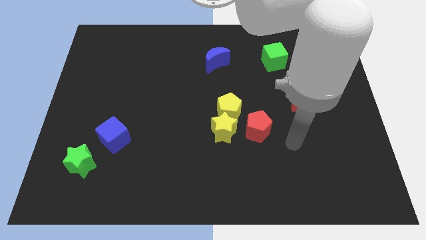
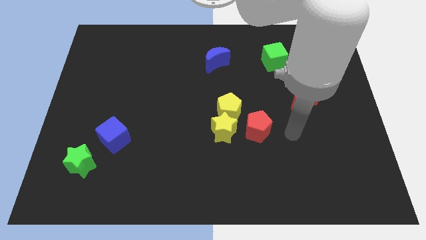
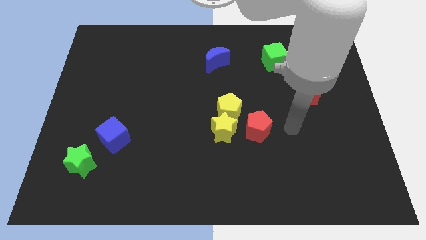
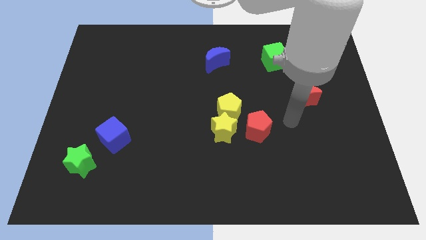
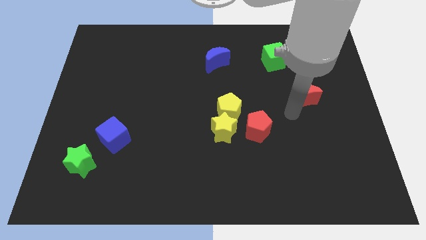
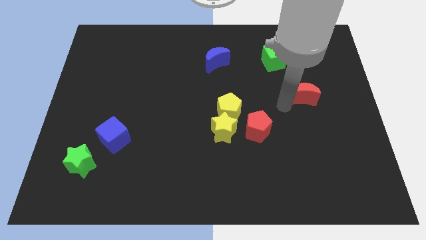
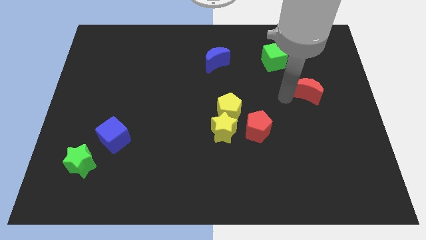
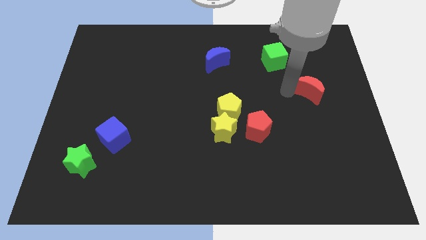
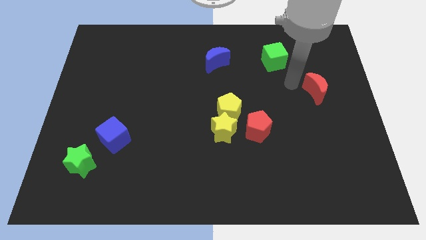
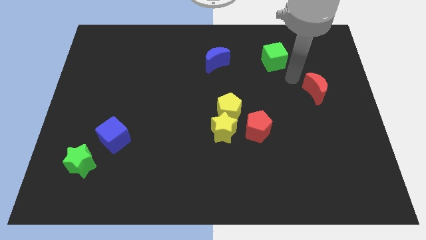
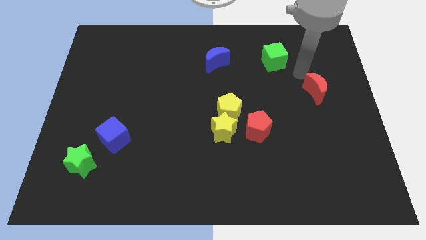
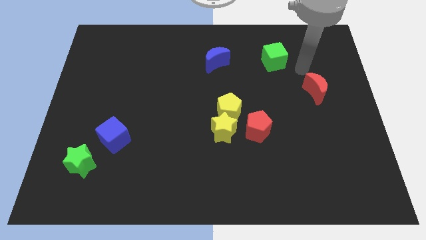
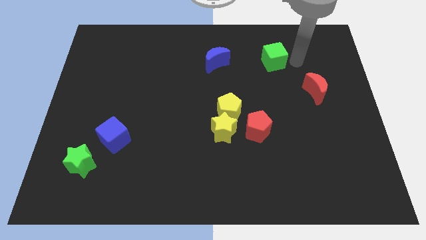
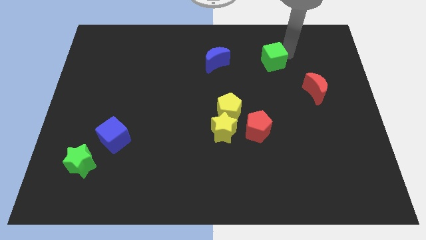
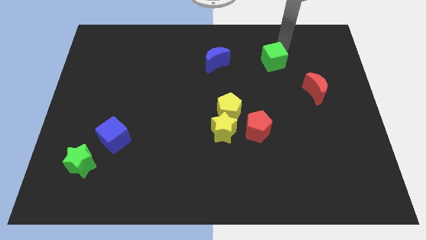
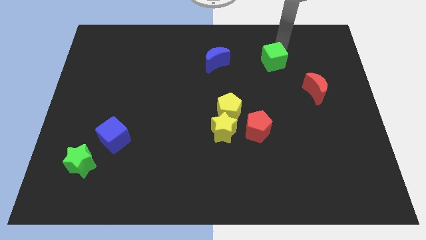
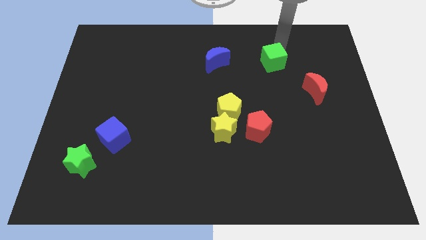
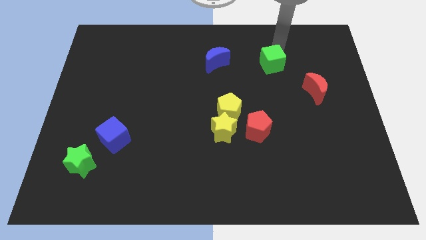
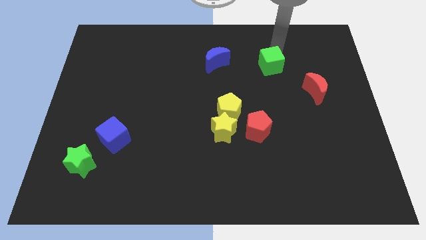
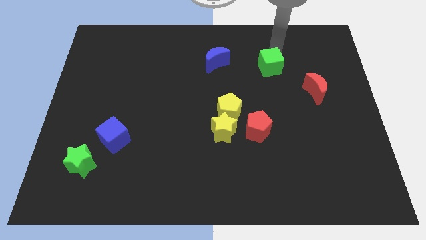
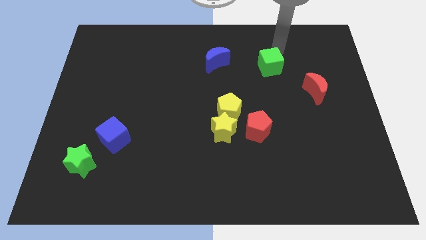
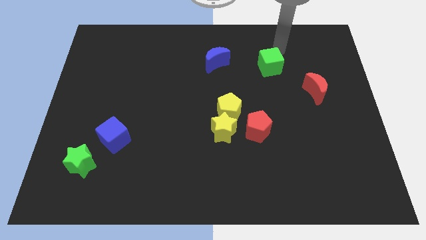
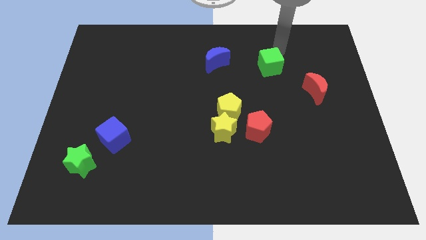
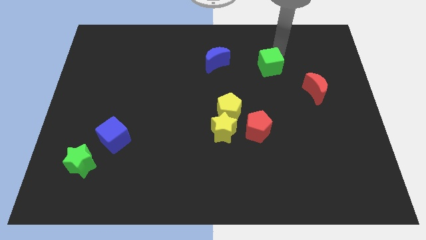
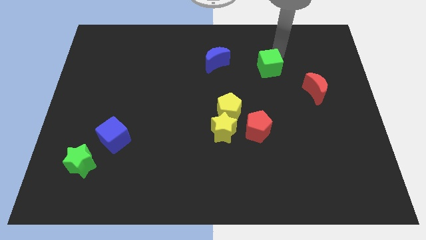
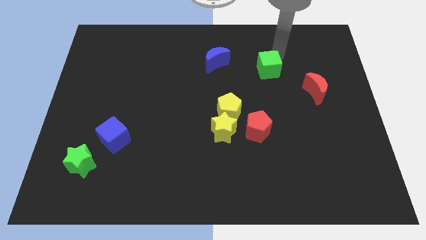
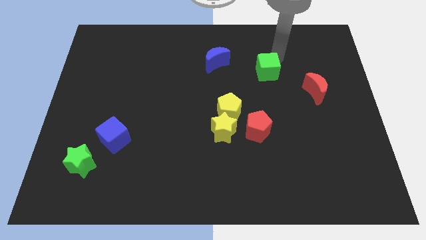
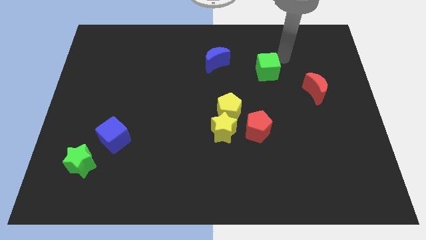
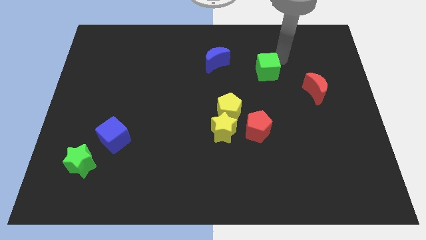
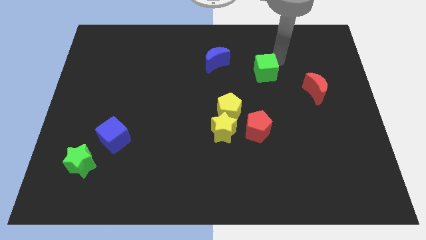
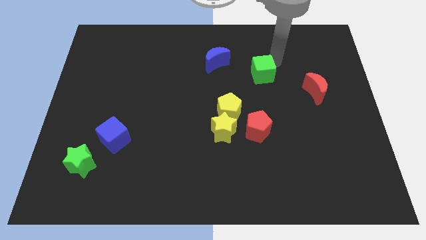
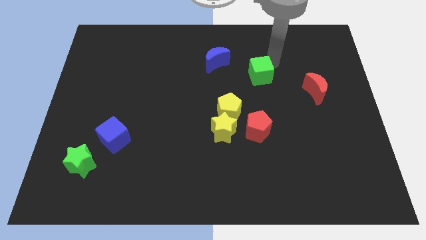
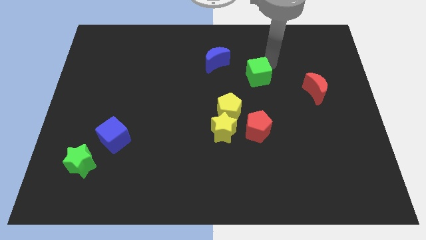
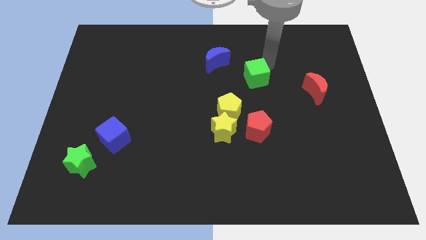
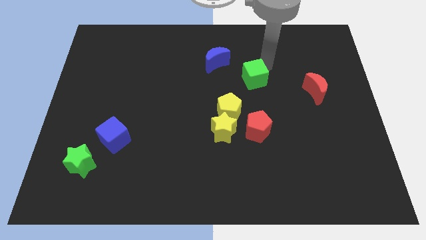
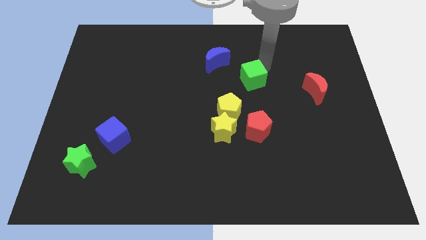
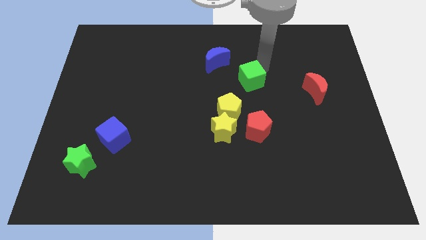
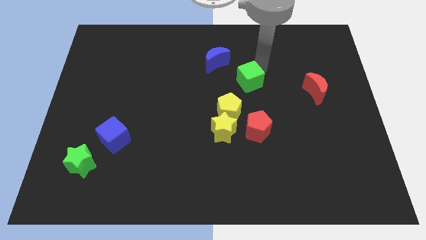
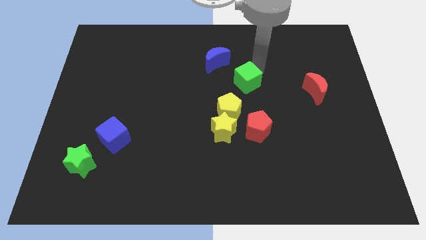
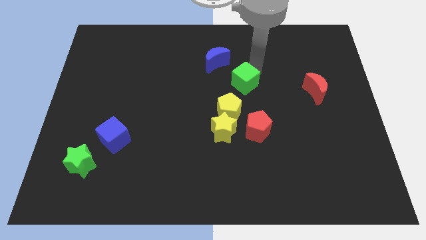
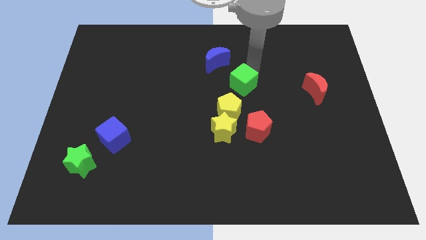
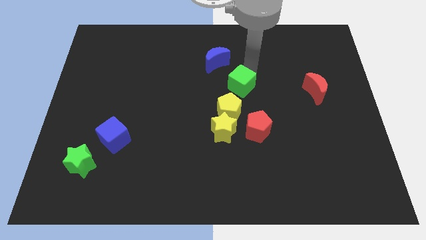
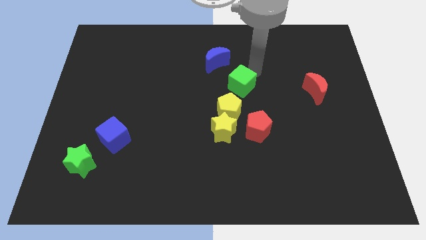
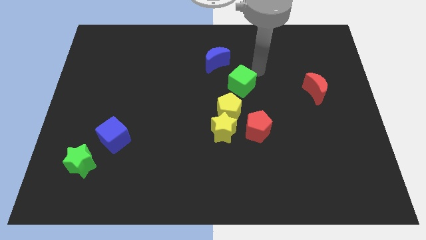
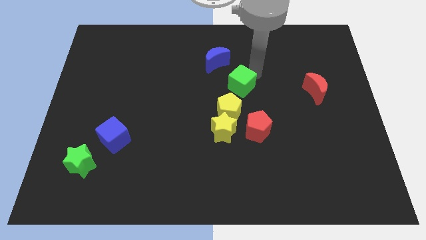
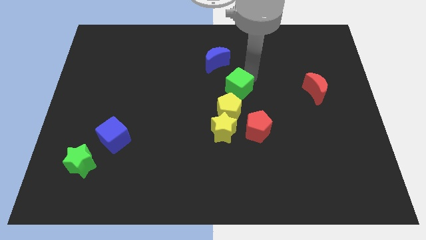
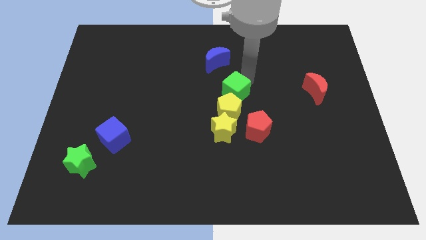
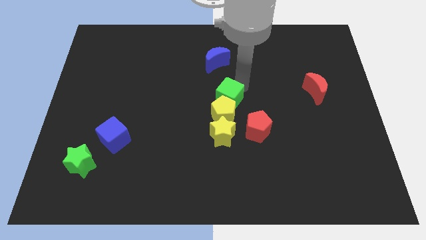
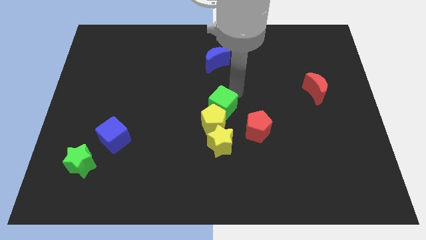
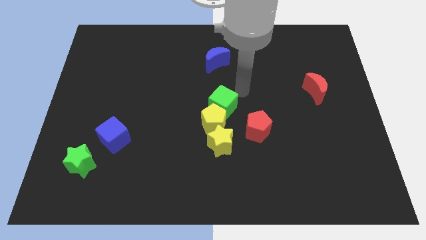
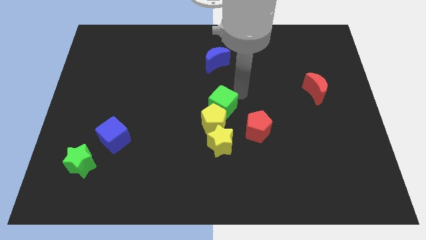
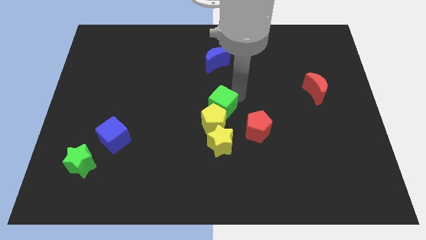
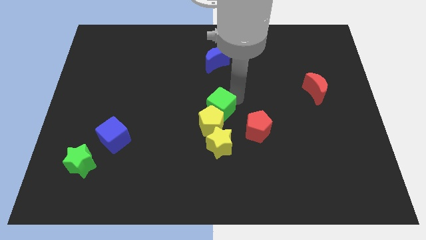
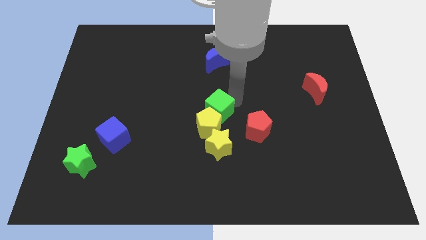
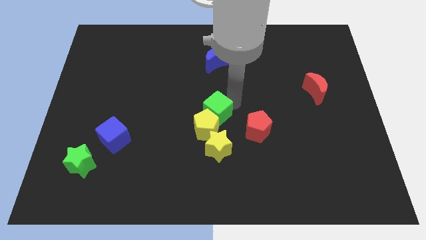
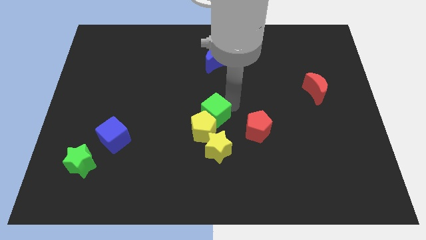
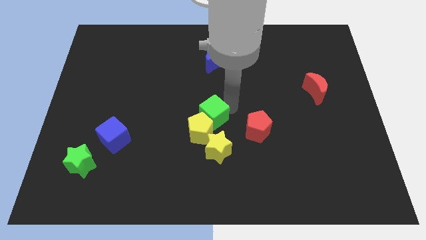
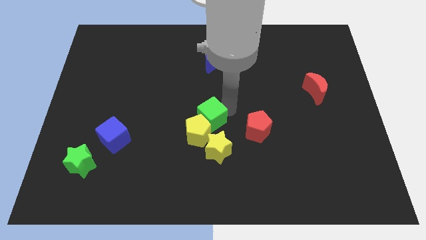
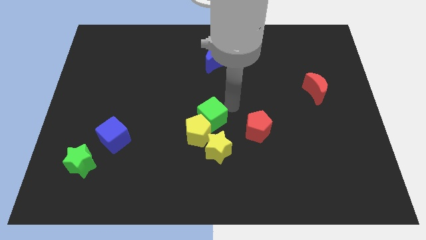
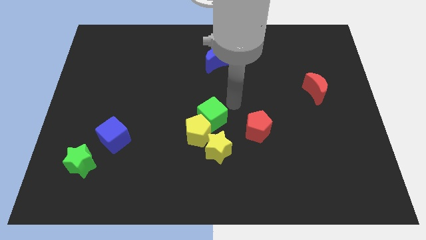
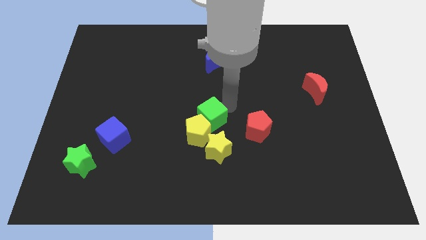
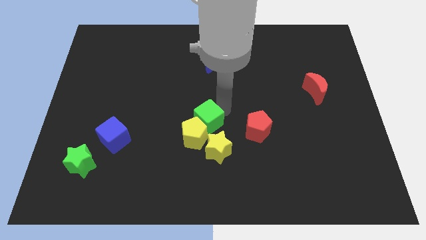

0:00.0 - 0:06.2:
put the green cube diagonally up and to the left of the yellow star

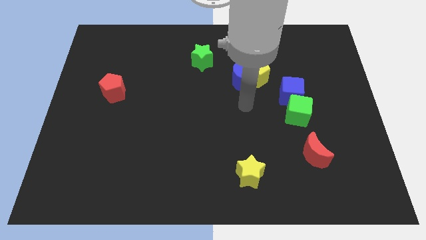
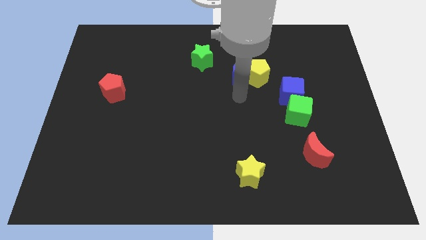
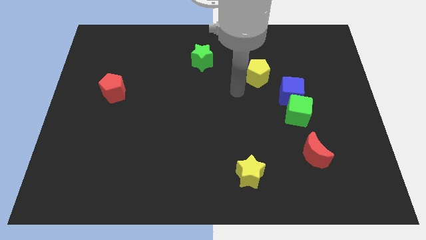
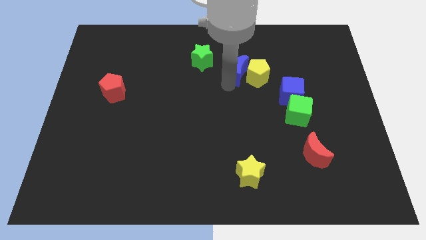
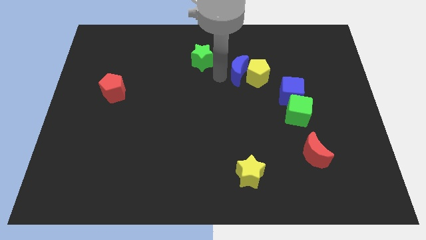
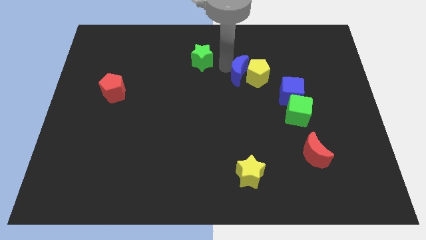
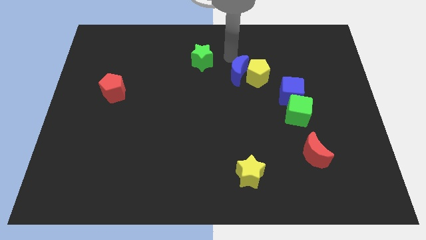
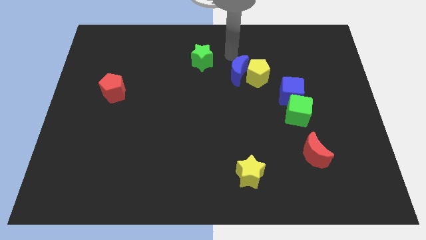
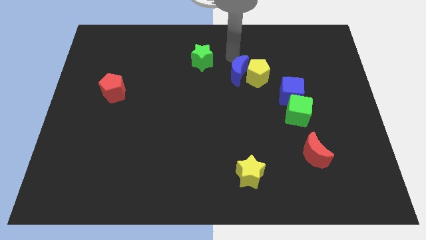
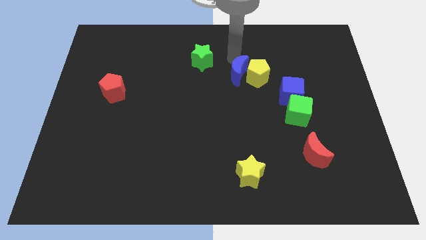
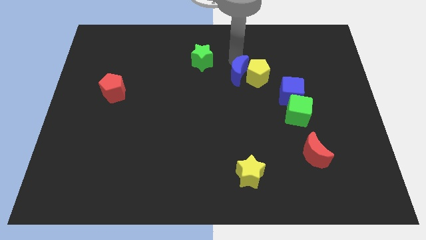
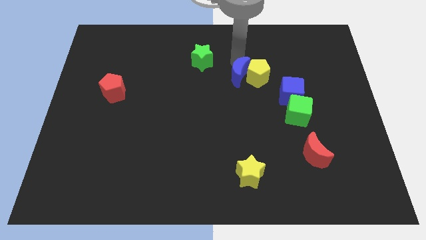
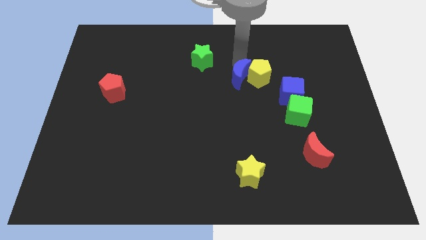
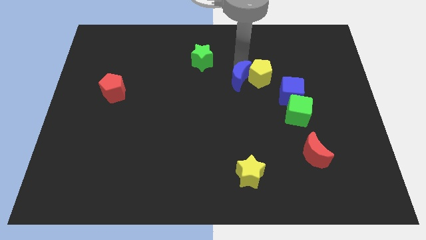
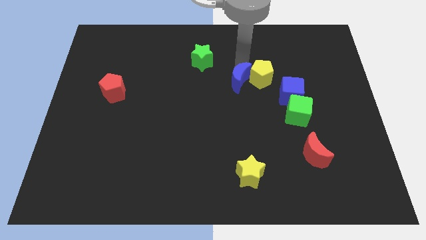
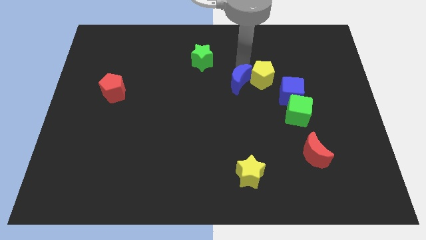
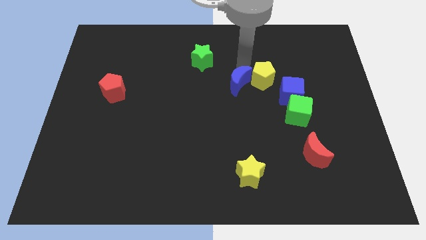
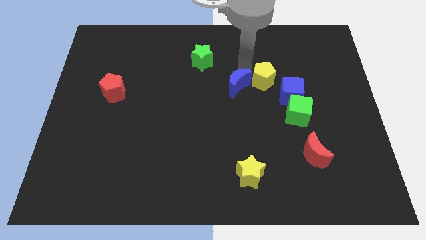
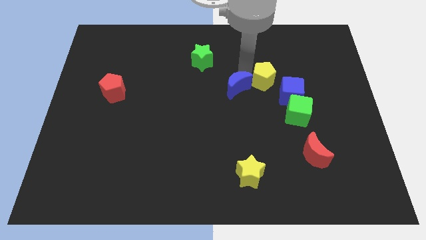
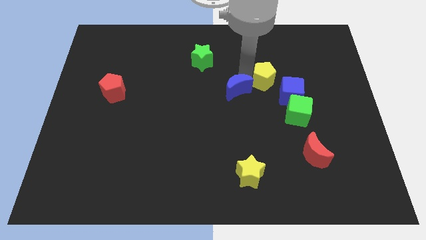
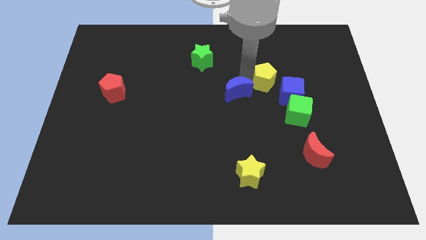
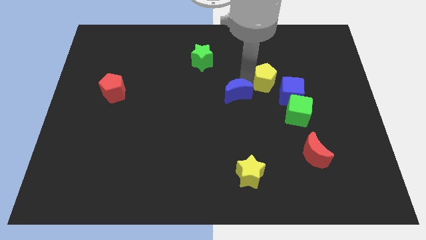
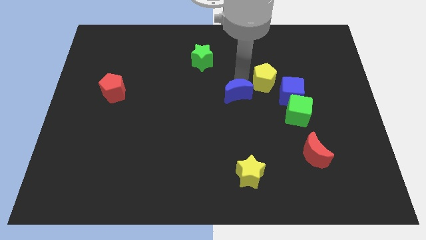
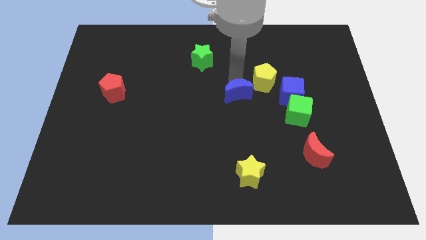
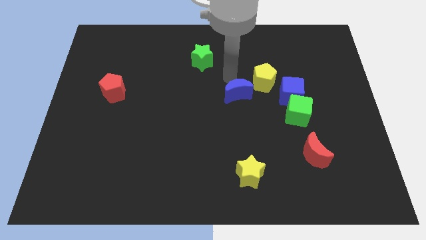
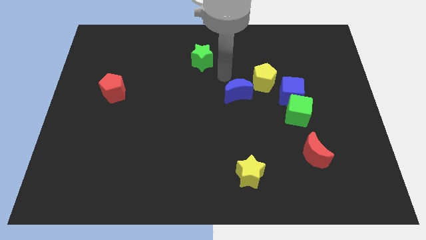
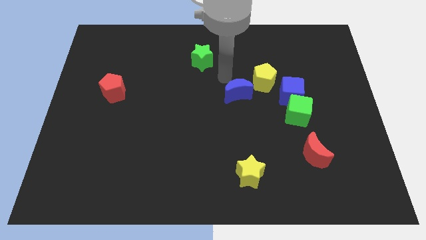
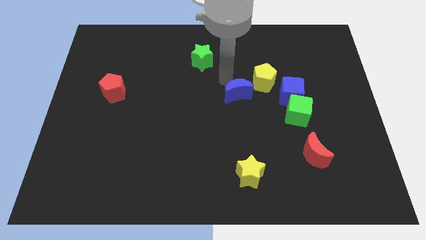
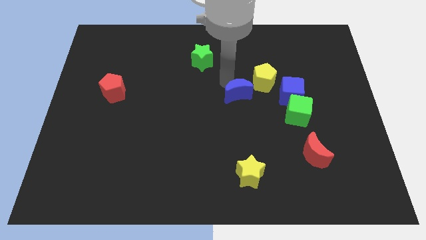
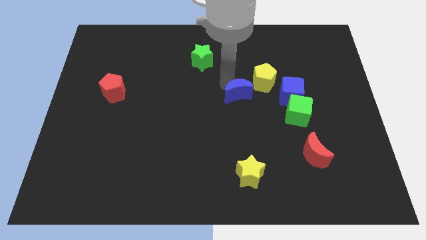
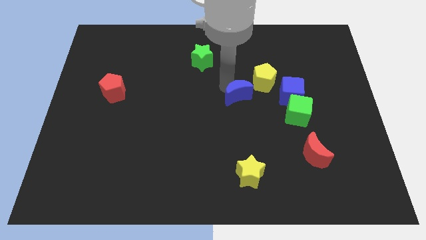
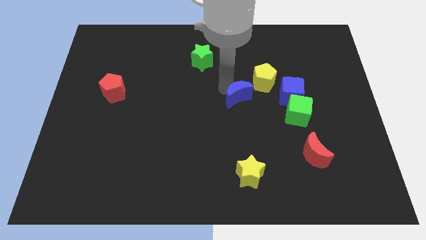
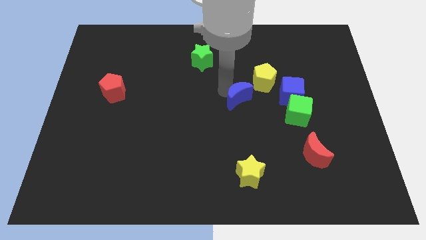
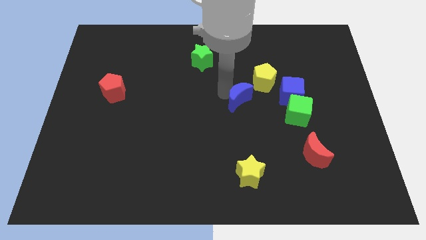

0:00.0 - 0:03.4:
slide the blue moon to the left side of the green cube
